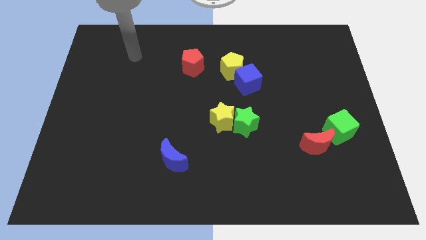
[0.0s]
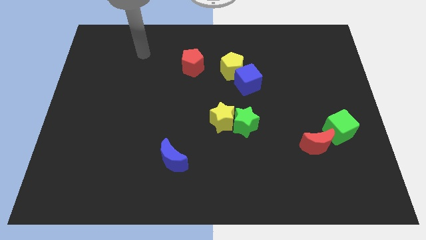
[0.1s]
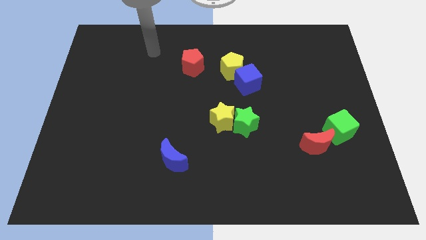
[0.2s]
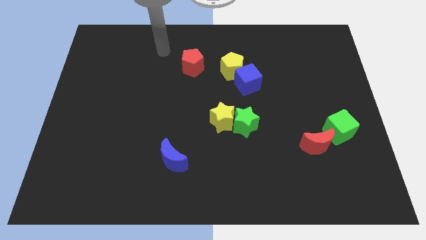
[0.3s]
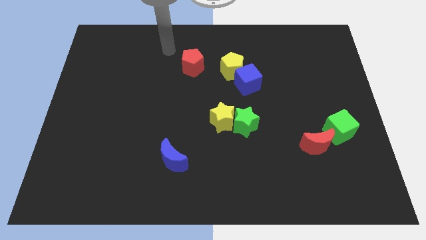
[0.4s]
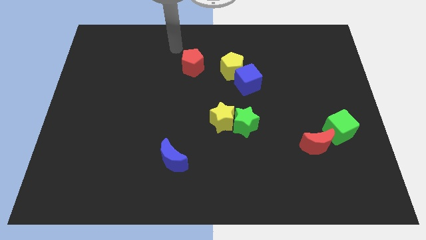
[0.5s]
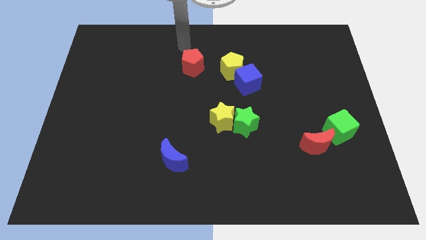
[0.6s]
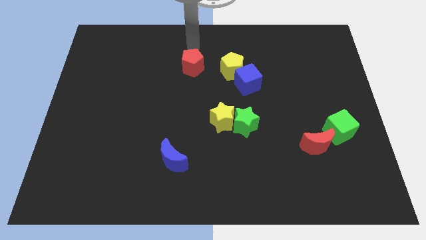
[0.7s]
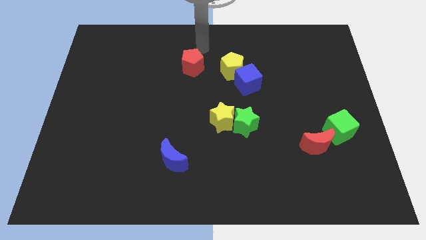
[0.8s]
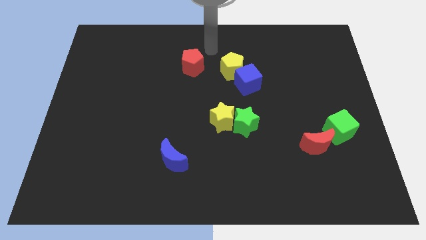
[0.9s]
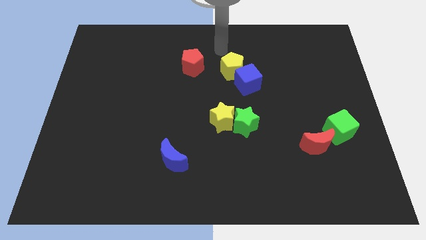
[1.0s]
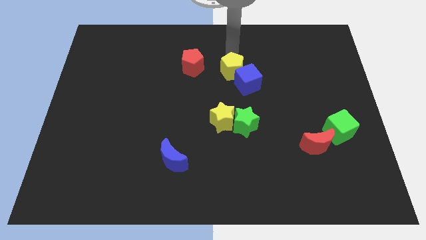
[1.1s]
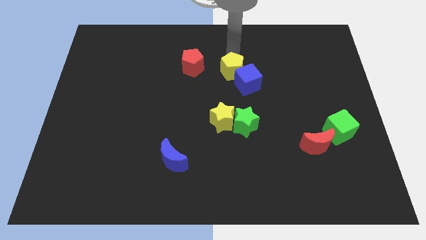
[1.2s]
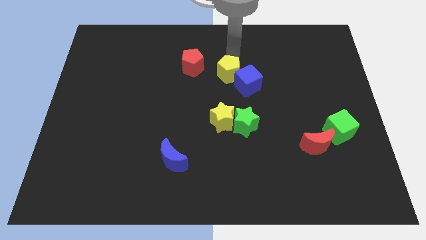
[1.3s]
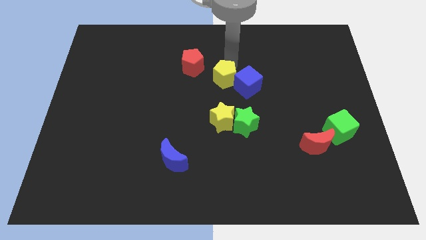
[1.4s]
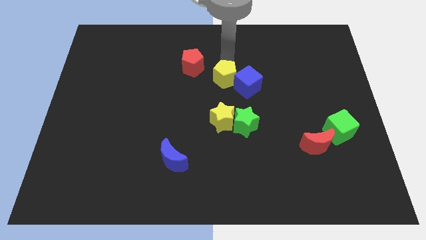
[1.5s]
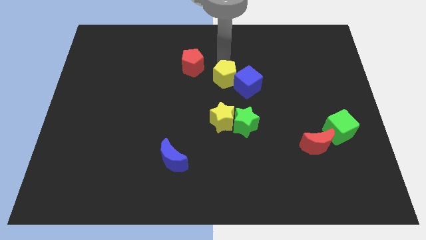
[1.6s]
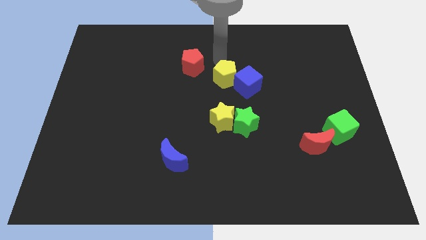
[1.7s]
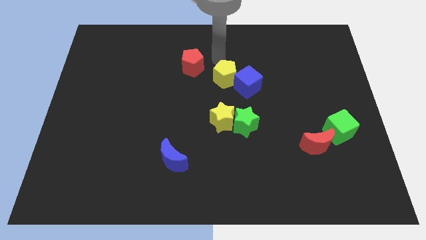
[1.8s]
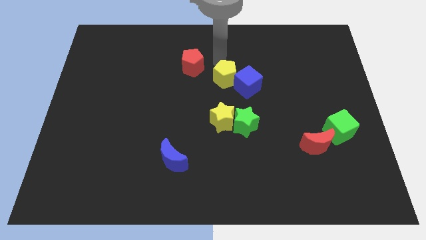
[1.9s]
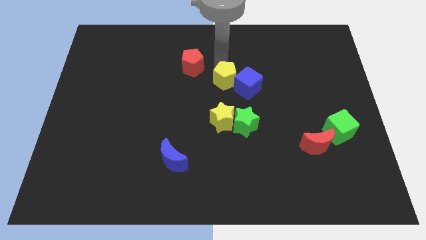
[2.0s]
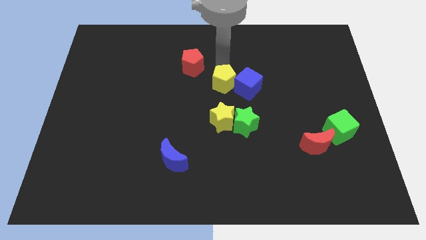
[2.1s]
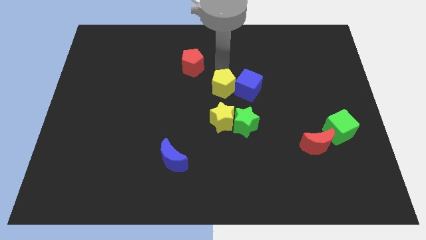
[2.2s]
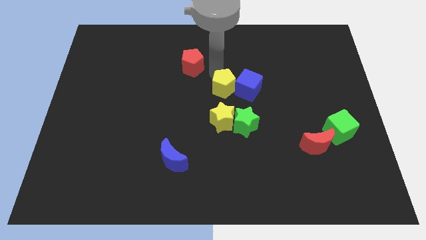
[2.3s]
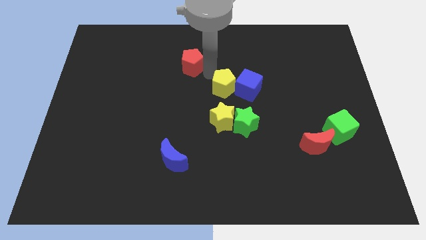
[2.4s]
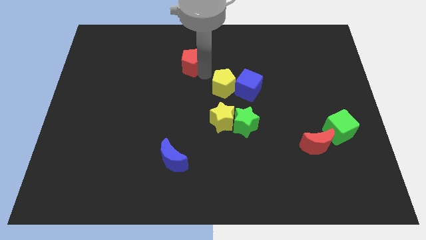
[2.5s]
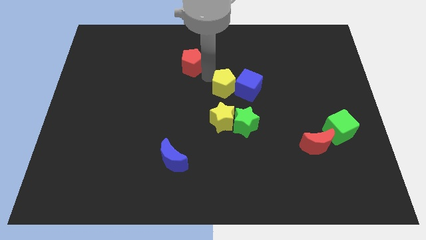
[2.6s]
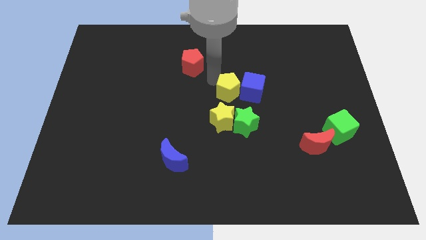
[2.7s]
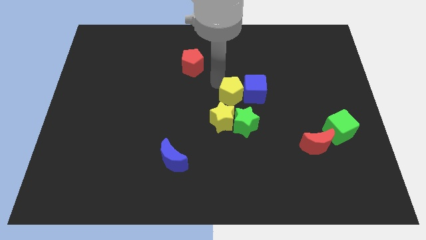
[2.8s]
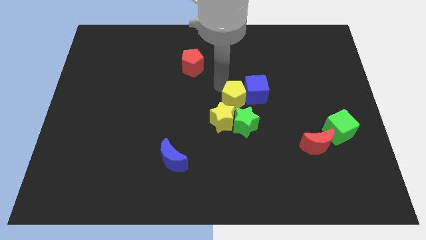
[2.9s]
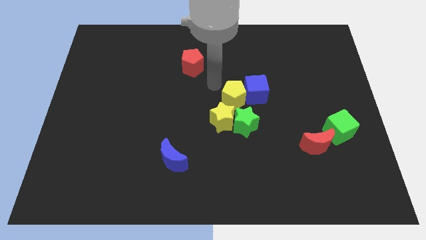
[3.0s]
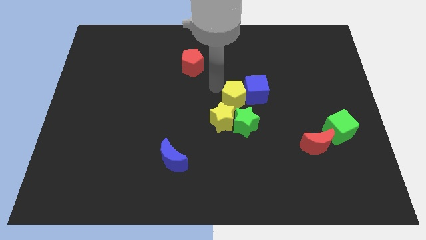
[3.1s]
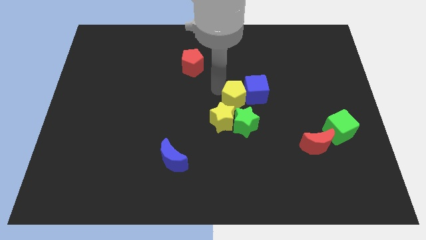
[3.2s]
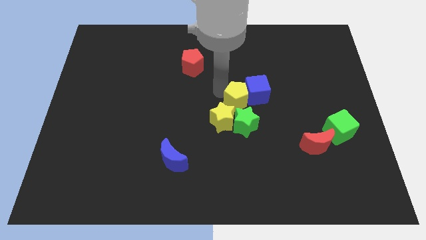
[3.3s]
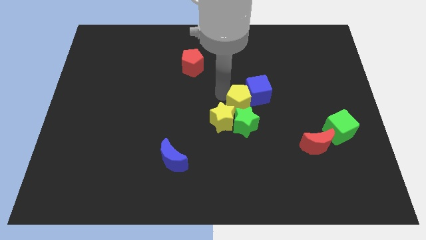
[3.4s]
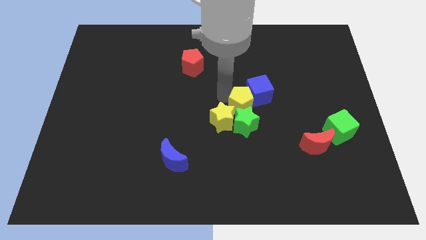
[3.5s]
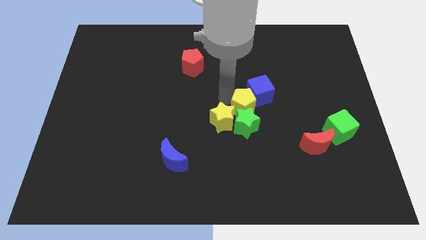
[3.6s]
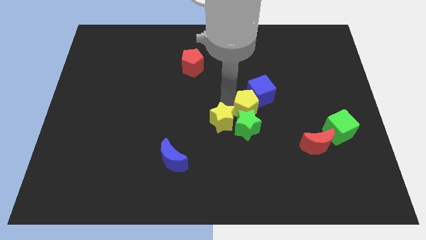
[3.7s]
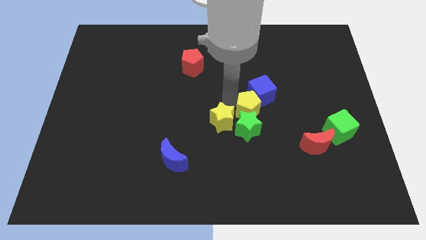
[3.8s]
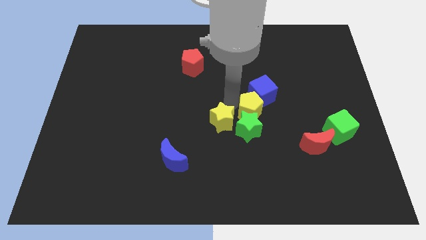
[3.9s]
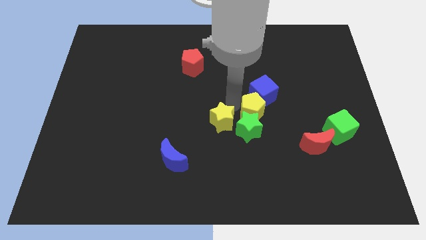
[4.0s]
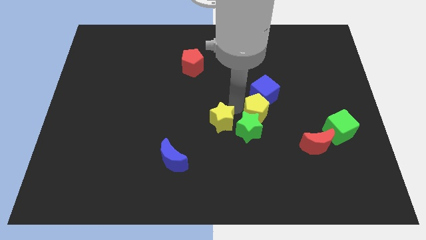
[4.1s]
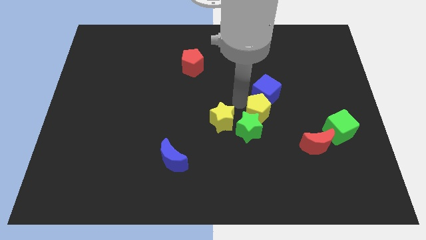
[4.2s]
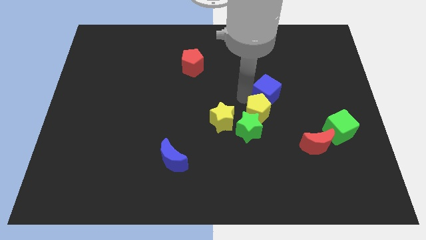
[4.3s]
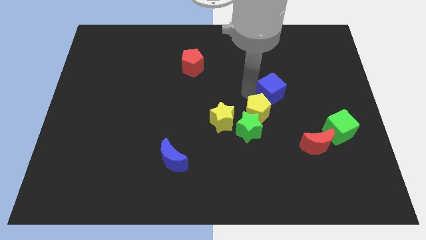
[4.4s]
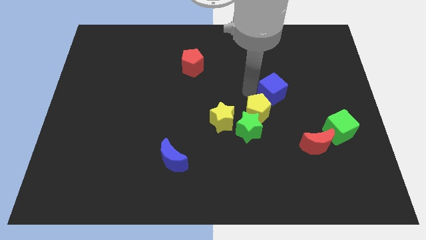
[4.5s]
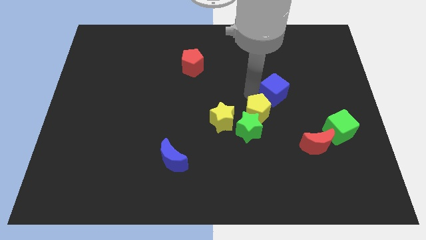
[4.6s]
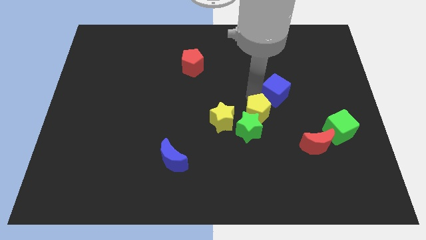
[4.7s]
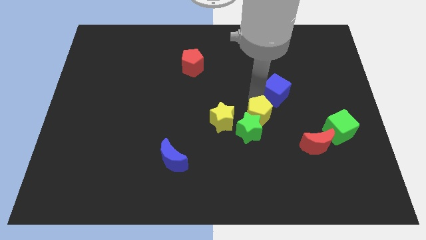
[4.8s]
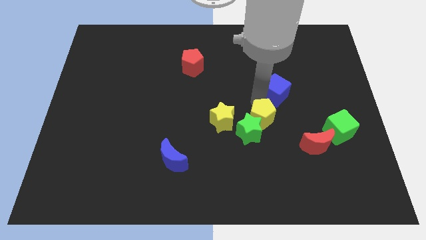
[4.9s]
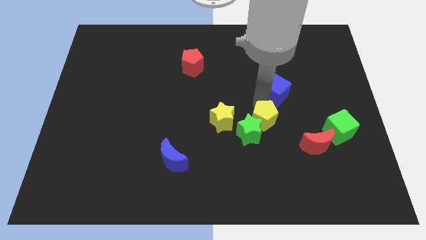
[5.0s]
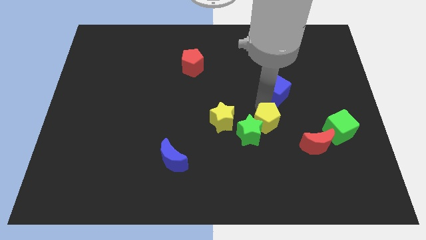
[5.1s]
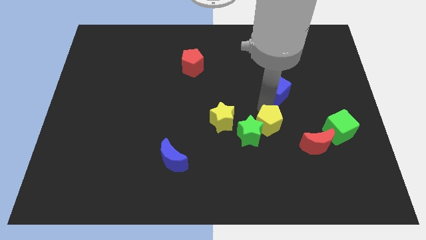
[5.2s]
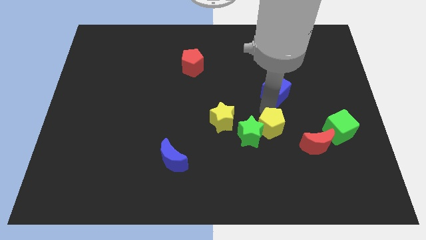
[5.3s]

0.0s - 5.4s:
put the yellow pentagon to the left of the red moon

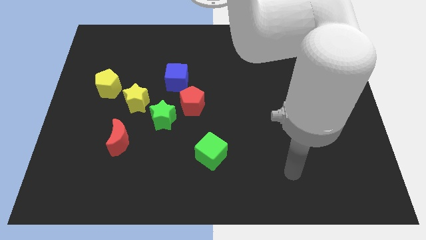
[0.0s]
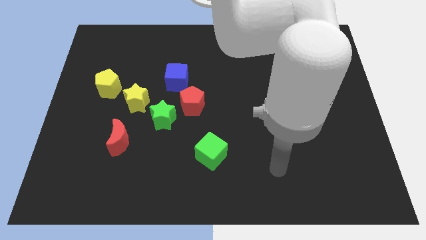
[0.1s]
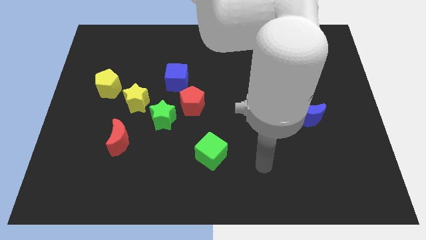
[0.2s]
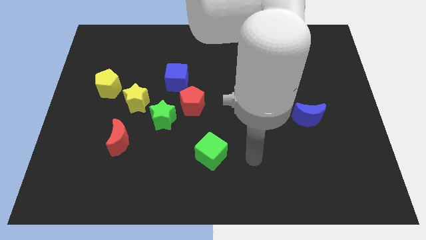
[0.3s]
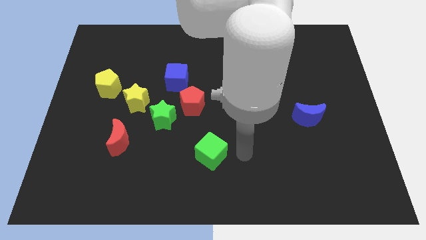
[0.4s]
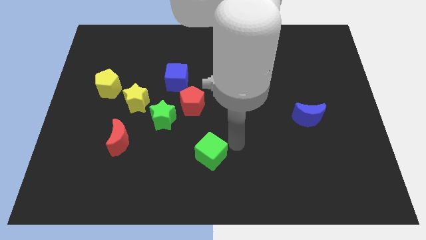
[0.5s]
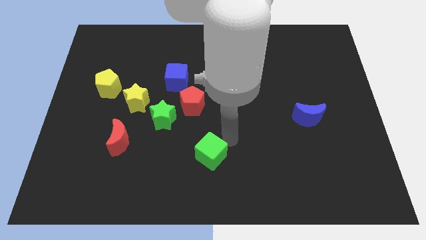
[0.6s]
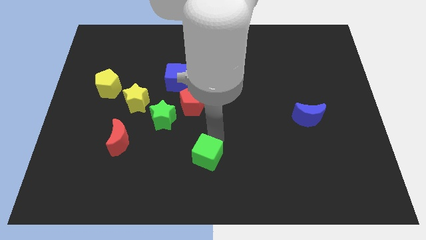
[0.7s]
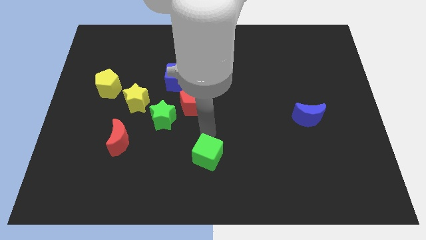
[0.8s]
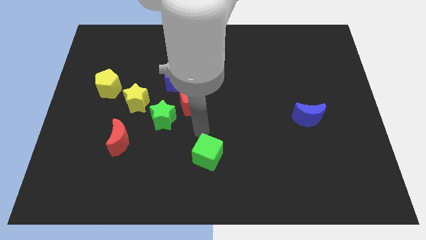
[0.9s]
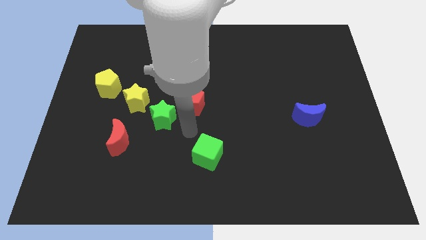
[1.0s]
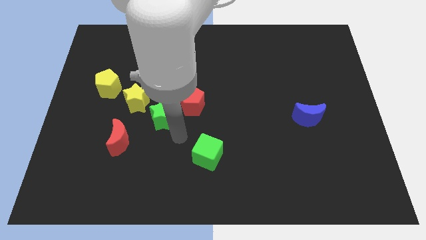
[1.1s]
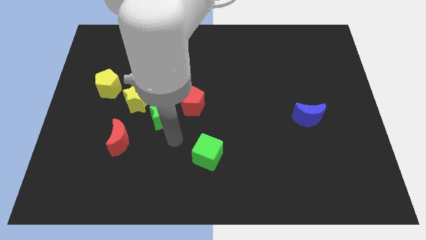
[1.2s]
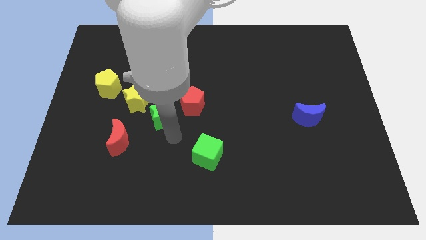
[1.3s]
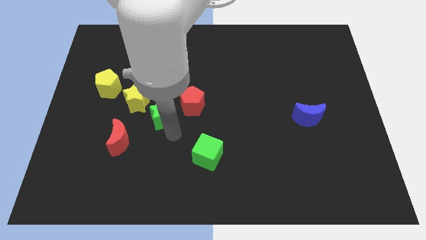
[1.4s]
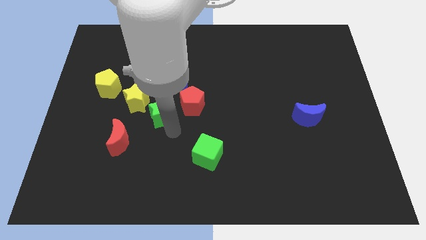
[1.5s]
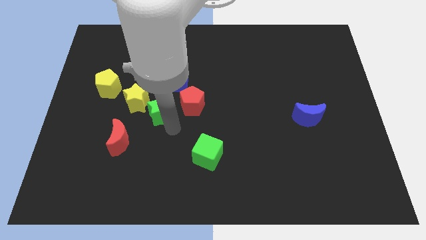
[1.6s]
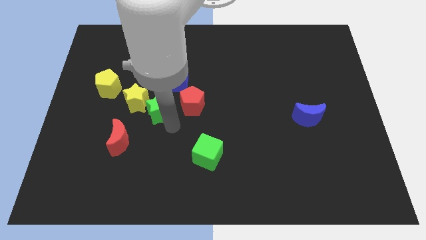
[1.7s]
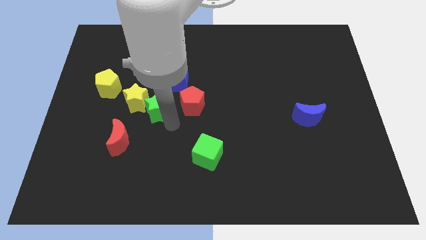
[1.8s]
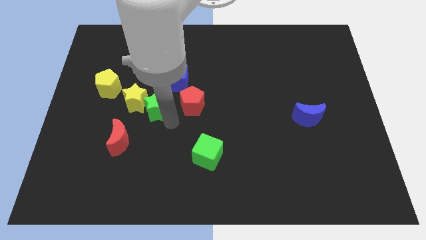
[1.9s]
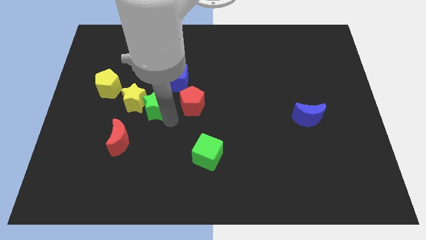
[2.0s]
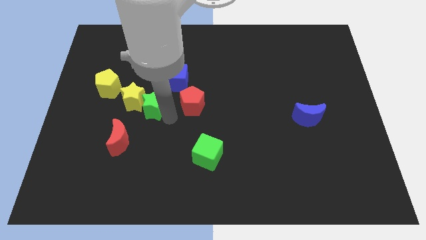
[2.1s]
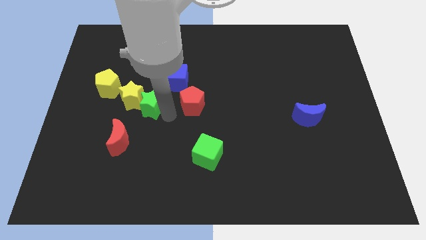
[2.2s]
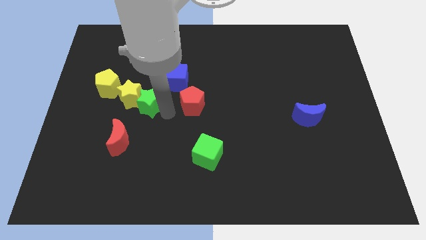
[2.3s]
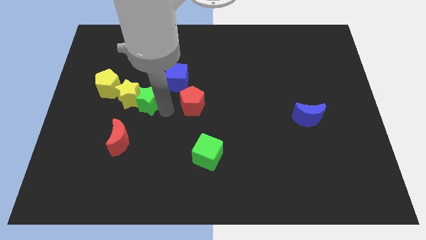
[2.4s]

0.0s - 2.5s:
push the green star to the right side of the yellow pentagon
